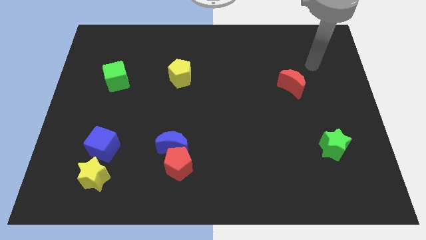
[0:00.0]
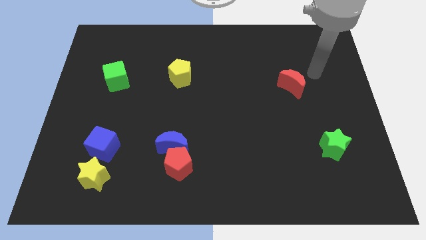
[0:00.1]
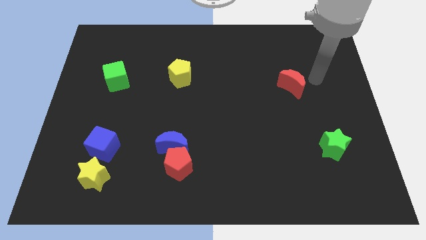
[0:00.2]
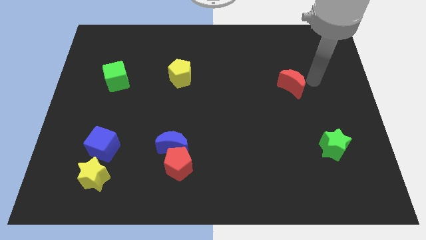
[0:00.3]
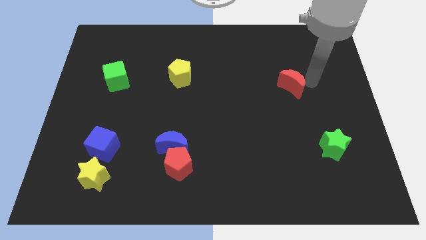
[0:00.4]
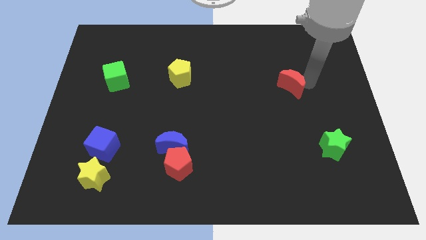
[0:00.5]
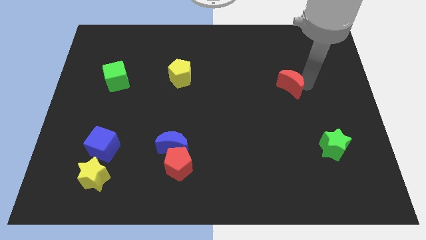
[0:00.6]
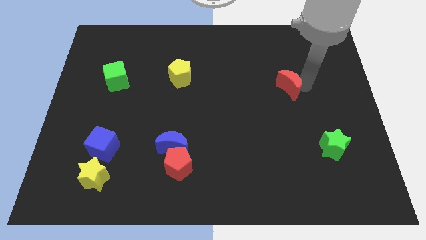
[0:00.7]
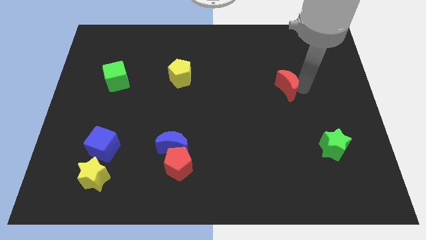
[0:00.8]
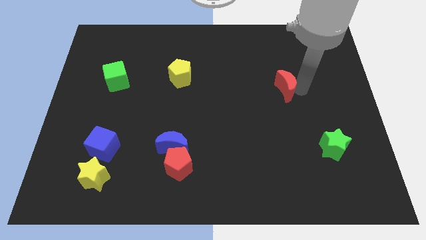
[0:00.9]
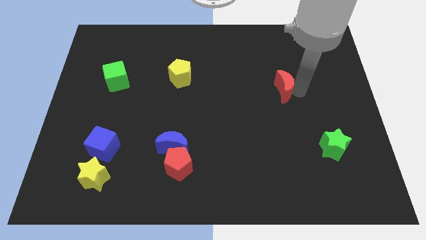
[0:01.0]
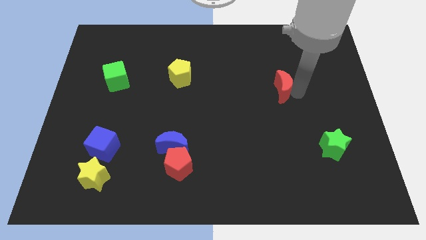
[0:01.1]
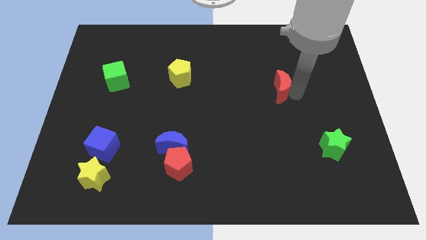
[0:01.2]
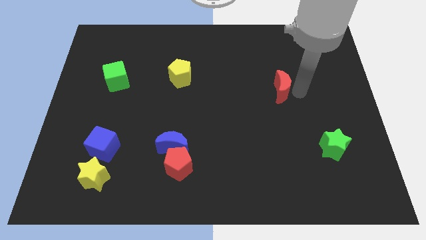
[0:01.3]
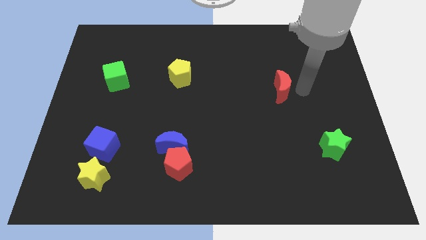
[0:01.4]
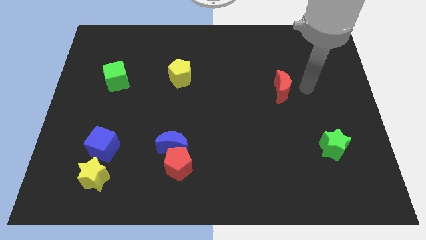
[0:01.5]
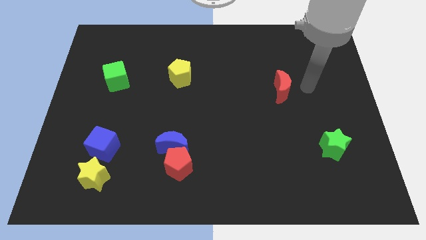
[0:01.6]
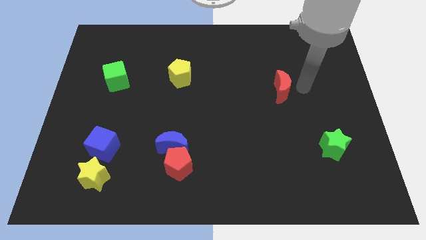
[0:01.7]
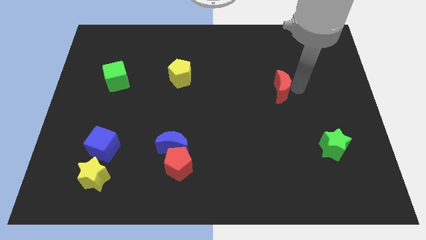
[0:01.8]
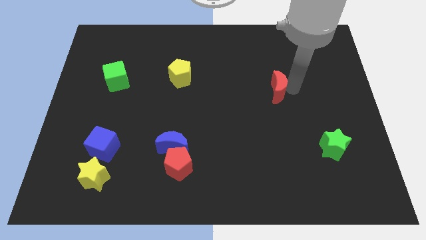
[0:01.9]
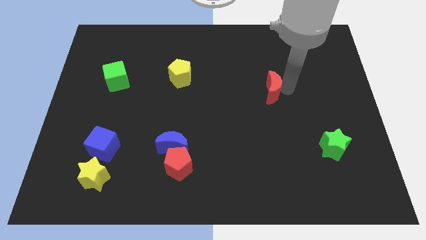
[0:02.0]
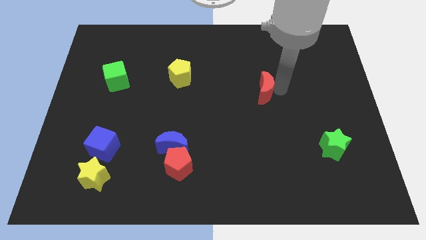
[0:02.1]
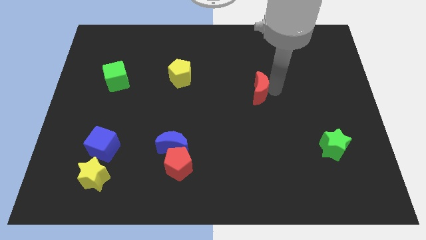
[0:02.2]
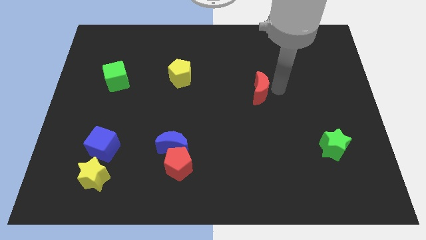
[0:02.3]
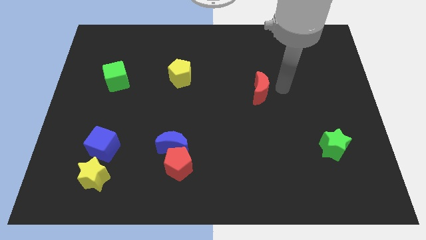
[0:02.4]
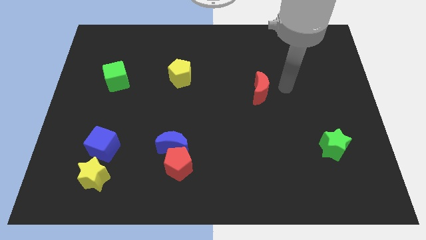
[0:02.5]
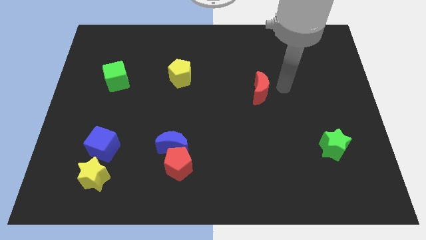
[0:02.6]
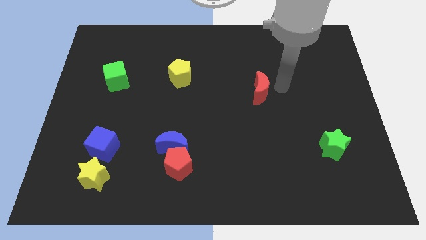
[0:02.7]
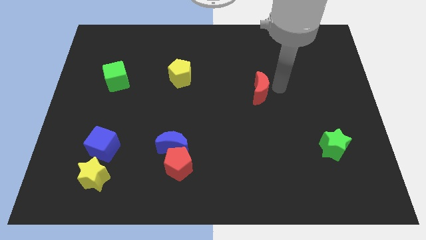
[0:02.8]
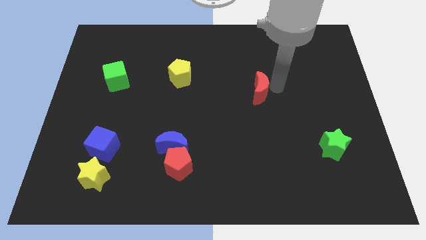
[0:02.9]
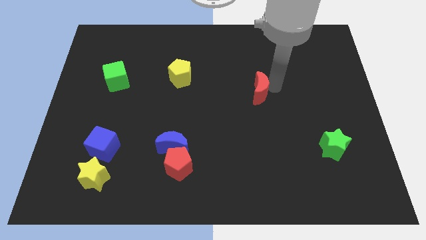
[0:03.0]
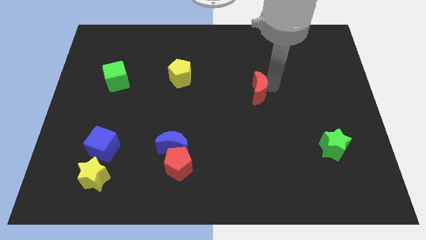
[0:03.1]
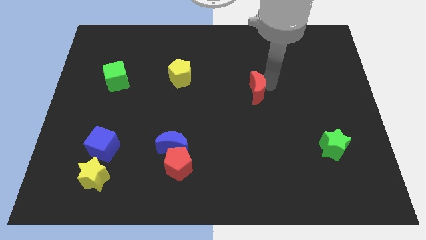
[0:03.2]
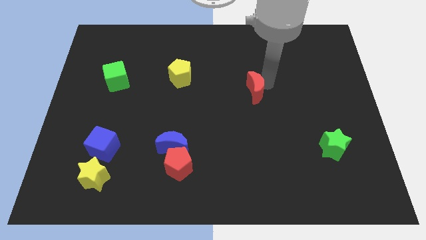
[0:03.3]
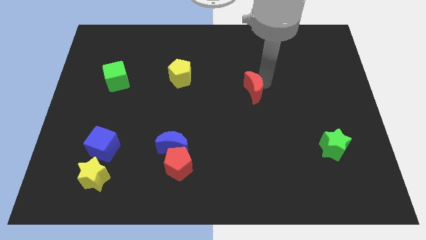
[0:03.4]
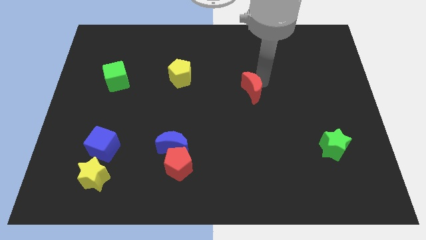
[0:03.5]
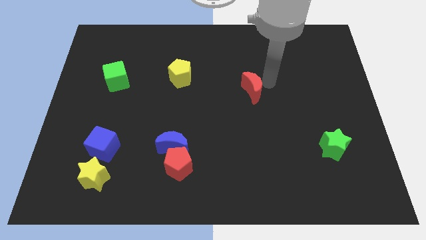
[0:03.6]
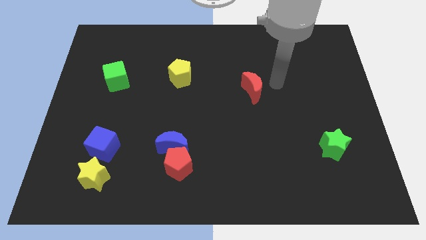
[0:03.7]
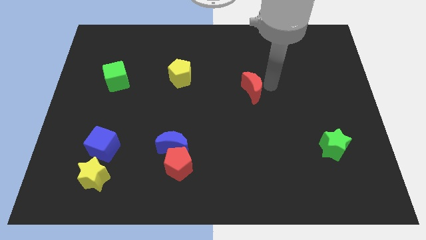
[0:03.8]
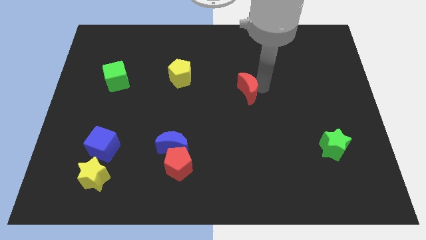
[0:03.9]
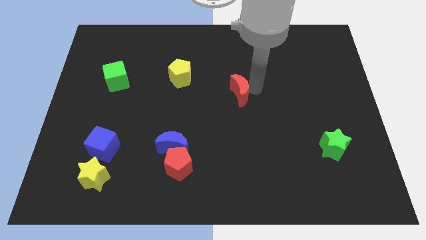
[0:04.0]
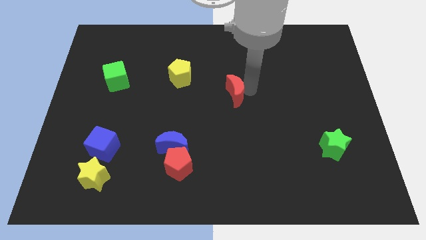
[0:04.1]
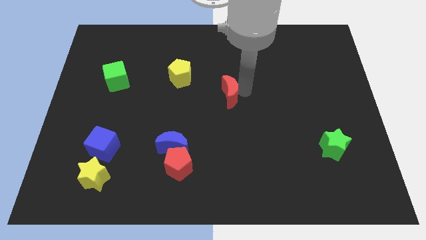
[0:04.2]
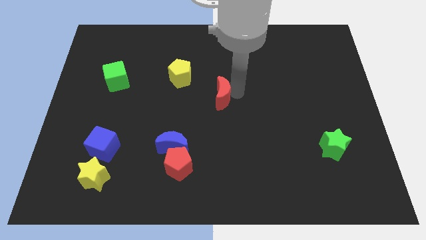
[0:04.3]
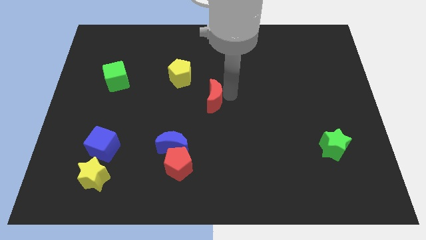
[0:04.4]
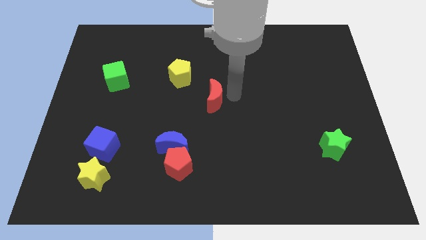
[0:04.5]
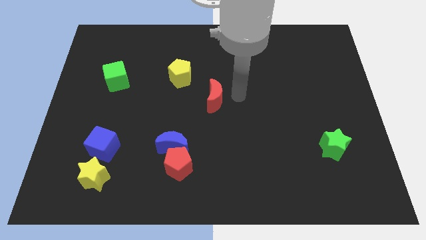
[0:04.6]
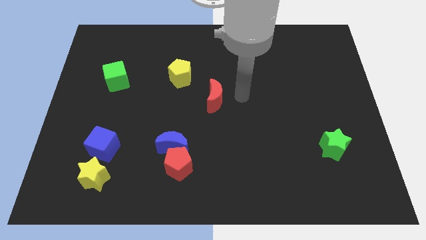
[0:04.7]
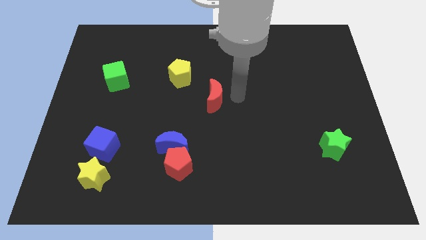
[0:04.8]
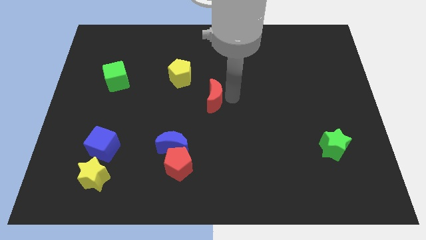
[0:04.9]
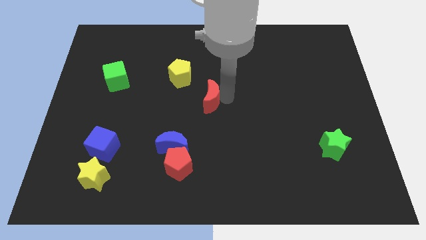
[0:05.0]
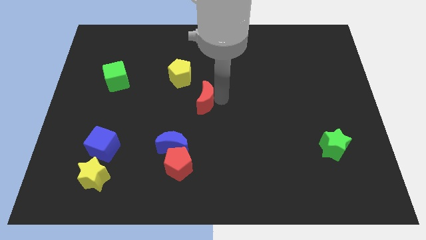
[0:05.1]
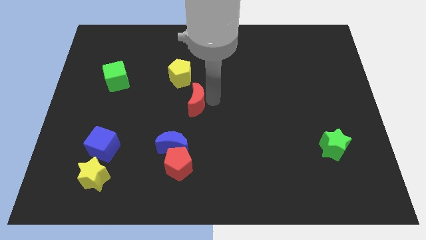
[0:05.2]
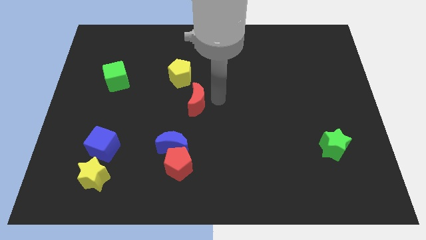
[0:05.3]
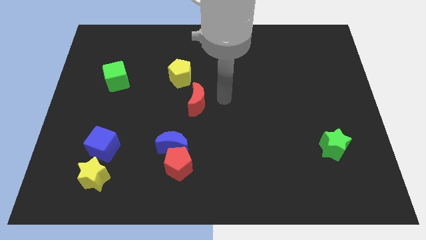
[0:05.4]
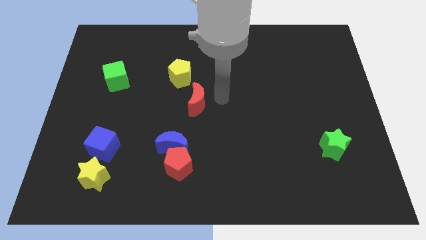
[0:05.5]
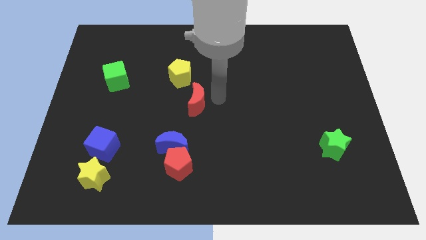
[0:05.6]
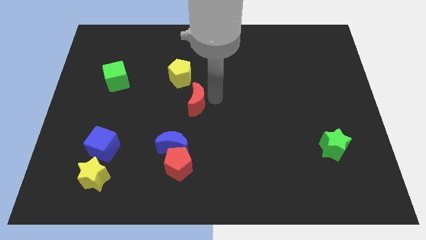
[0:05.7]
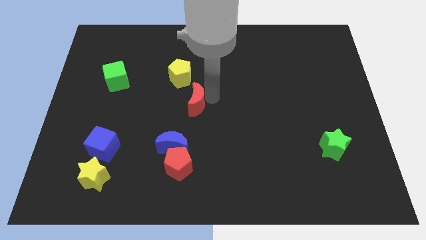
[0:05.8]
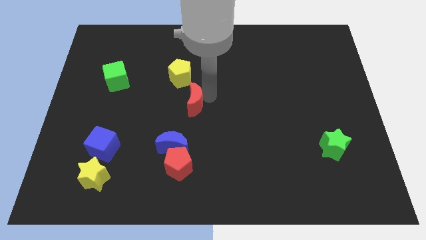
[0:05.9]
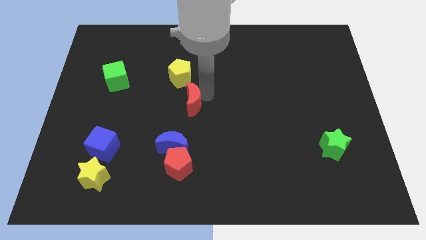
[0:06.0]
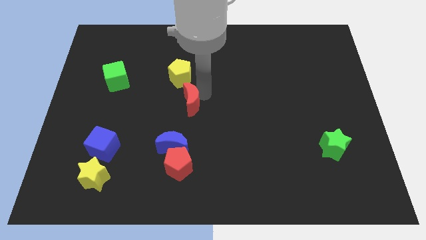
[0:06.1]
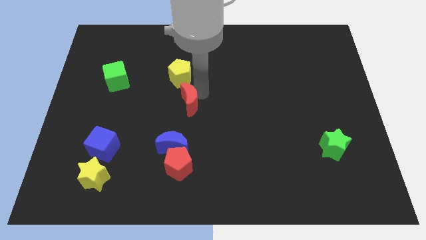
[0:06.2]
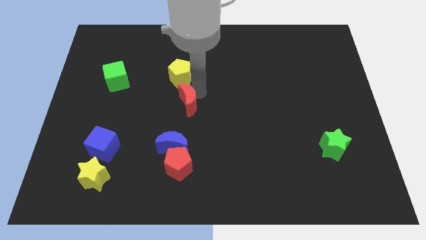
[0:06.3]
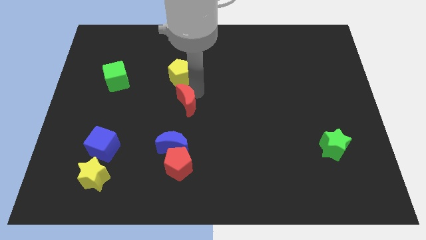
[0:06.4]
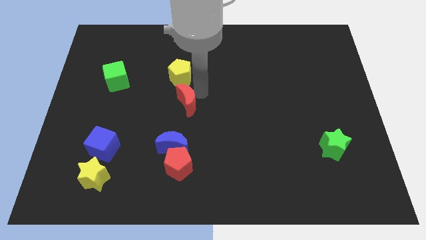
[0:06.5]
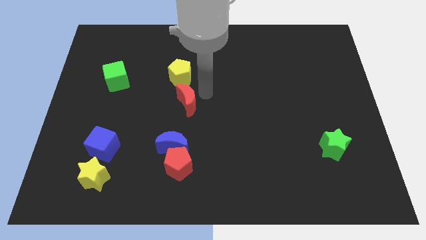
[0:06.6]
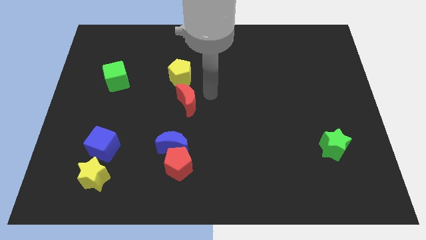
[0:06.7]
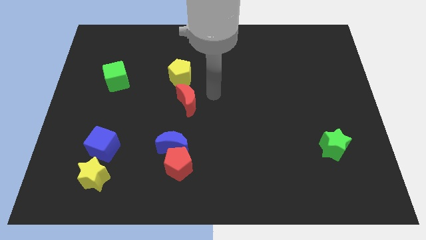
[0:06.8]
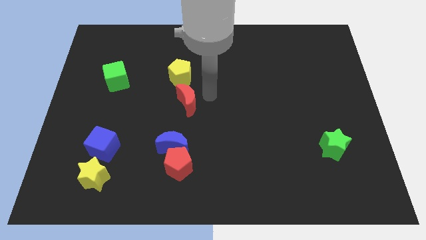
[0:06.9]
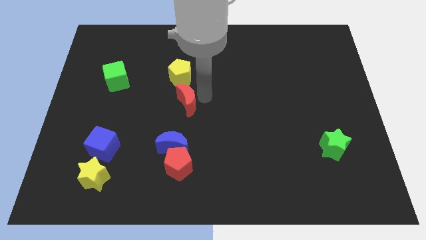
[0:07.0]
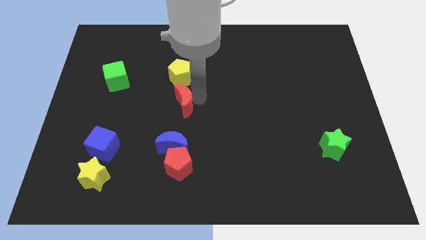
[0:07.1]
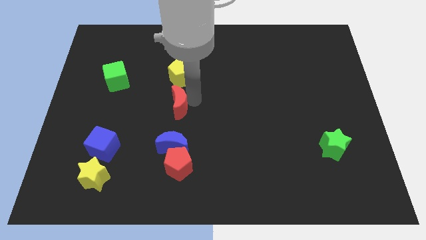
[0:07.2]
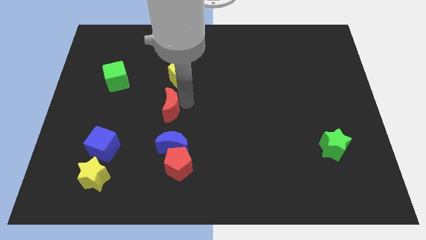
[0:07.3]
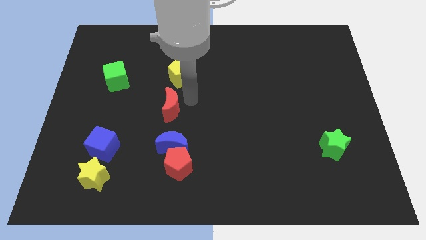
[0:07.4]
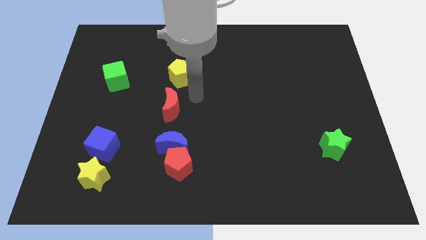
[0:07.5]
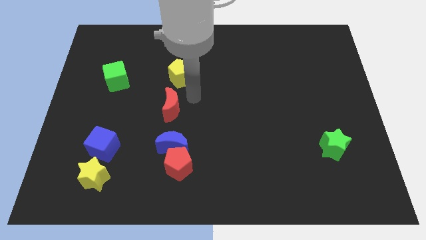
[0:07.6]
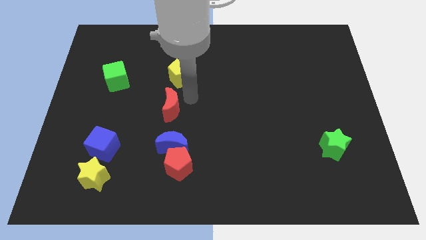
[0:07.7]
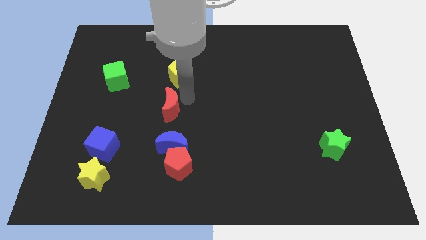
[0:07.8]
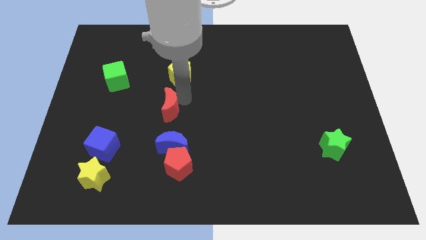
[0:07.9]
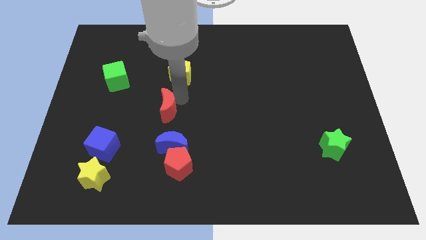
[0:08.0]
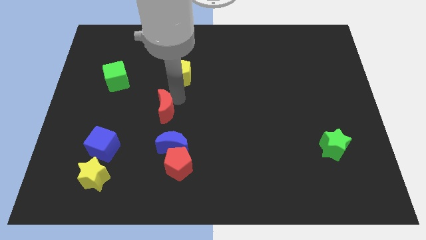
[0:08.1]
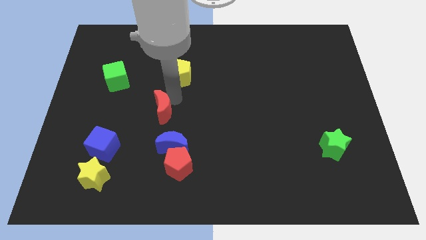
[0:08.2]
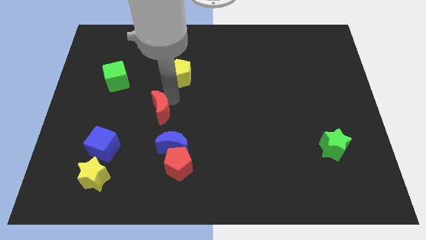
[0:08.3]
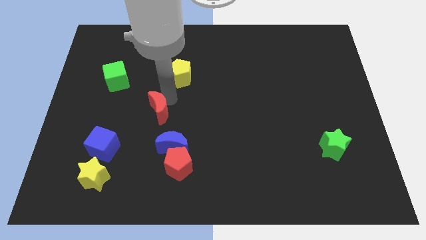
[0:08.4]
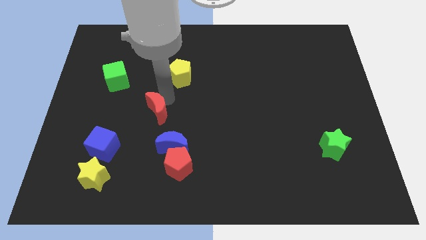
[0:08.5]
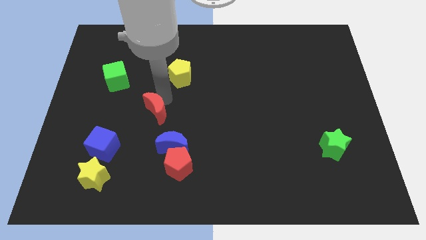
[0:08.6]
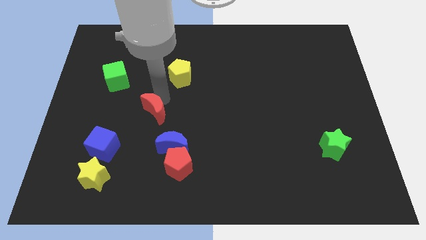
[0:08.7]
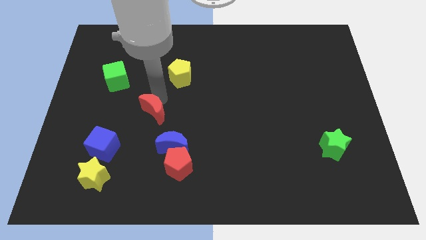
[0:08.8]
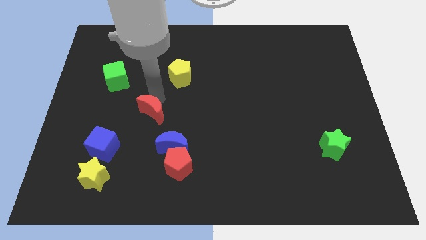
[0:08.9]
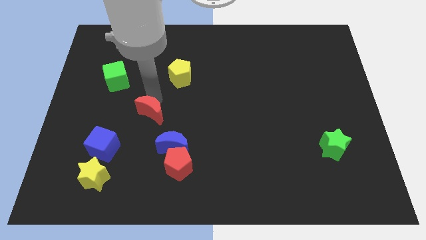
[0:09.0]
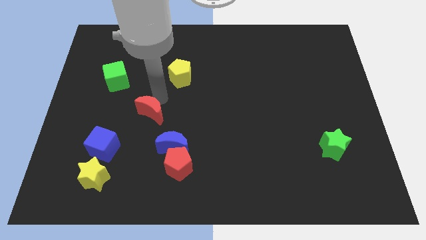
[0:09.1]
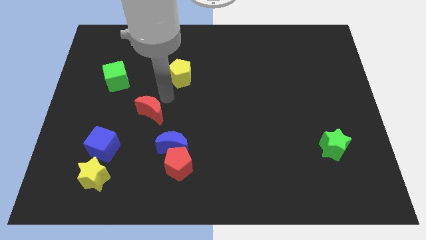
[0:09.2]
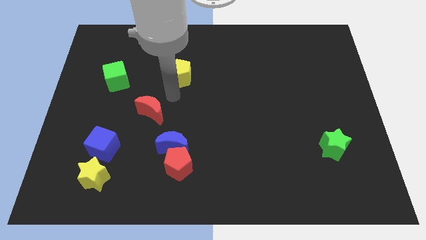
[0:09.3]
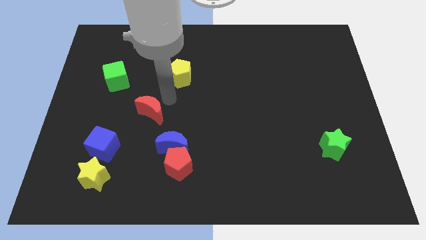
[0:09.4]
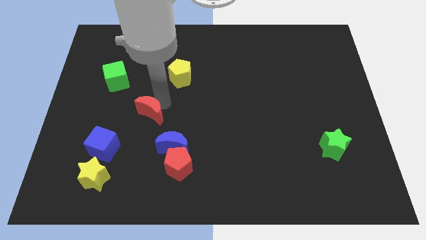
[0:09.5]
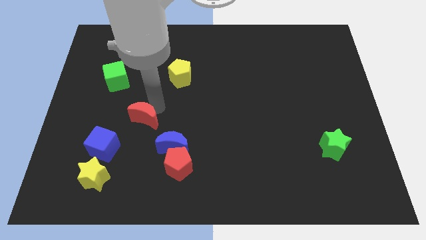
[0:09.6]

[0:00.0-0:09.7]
slide the red moon to the top right of the blue cube
